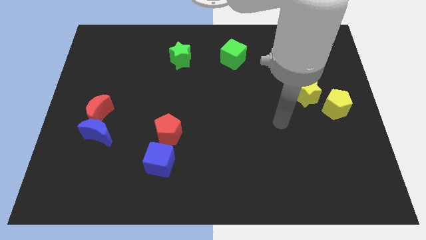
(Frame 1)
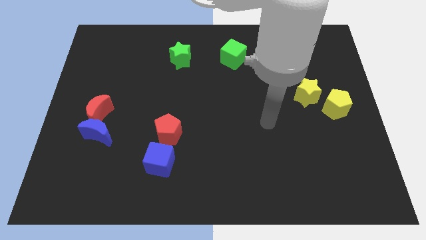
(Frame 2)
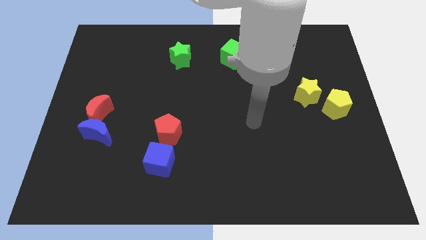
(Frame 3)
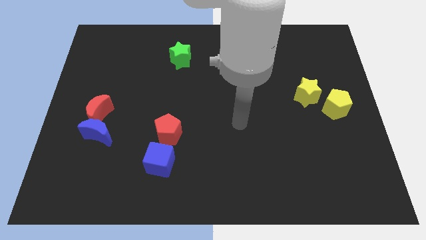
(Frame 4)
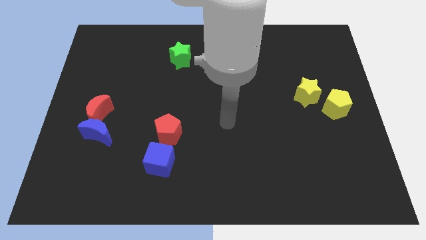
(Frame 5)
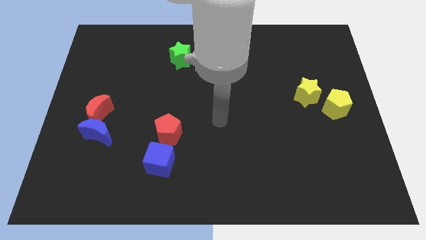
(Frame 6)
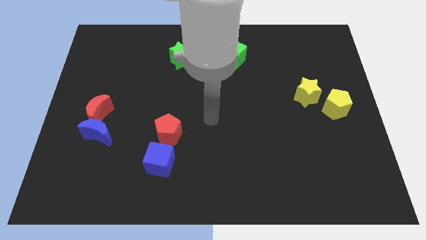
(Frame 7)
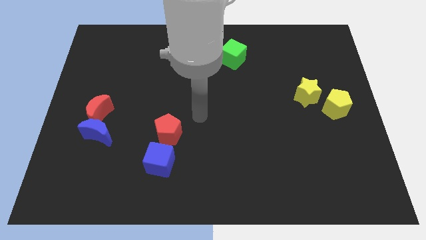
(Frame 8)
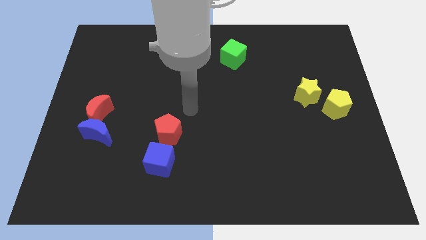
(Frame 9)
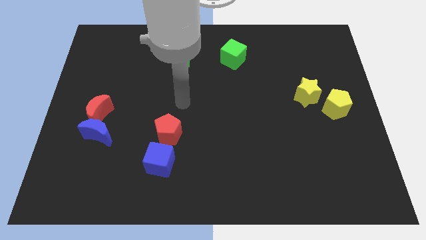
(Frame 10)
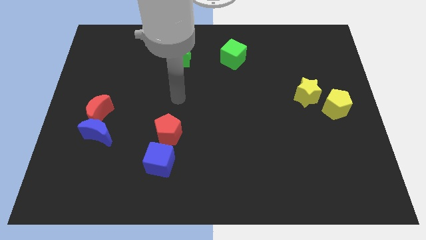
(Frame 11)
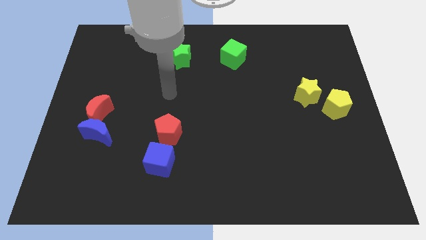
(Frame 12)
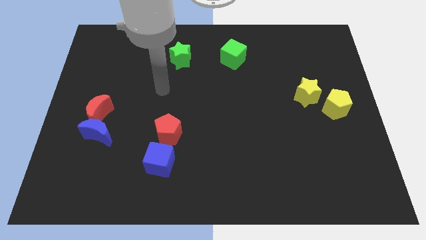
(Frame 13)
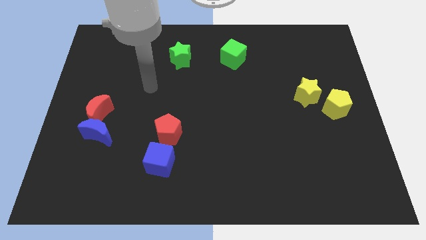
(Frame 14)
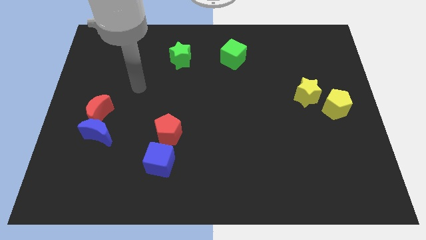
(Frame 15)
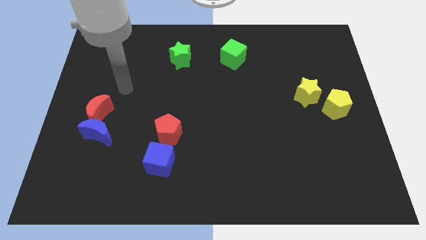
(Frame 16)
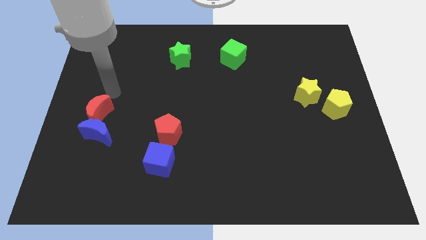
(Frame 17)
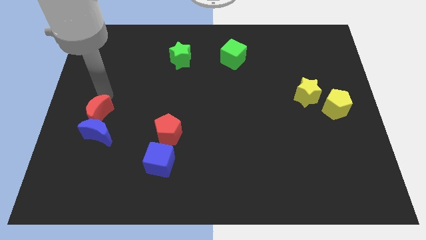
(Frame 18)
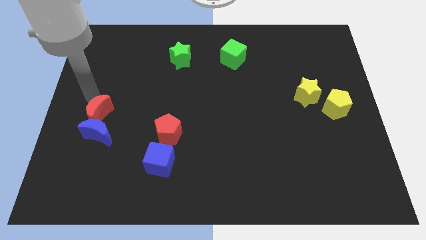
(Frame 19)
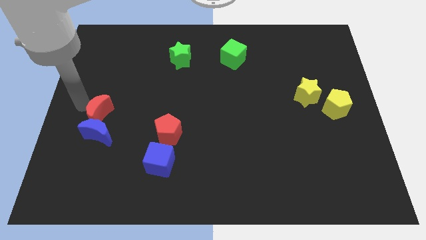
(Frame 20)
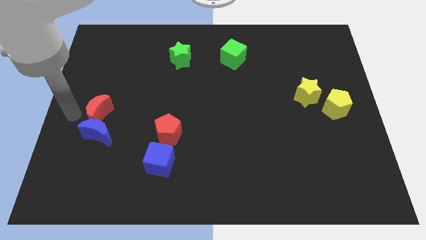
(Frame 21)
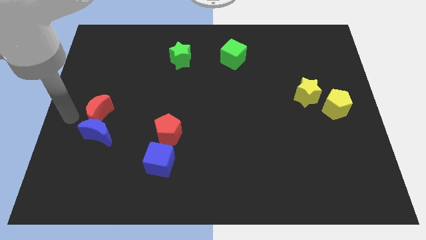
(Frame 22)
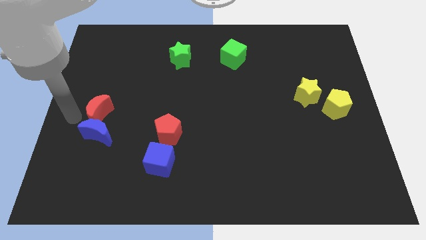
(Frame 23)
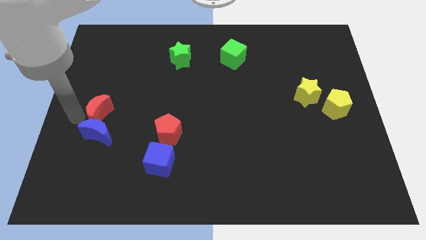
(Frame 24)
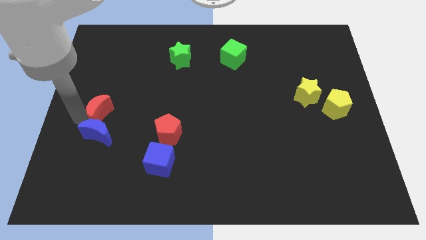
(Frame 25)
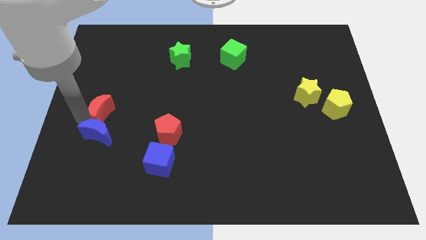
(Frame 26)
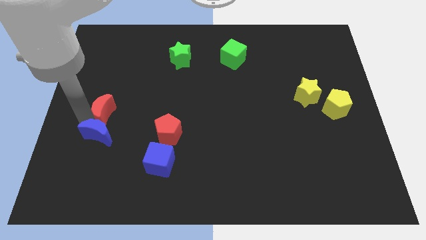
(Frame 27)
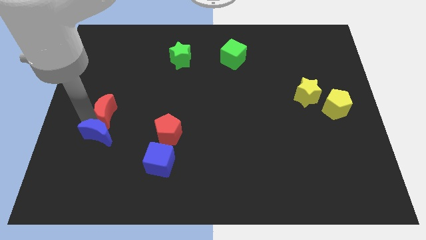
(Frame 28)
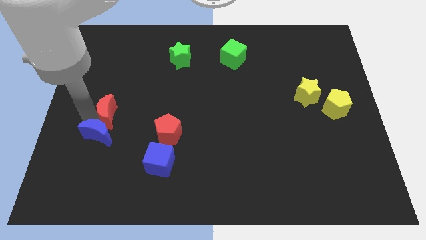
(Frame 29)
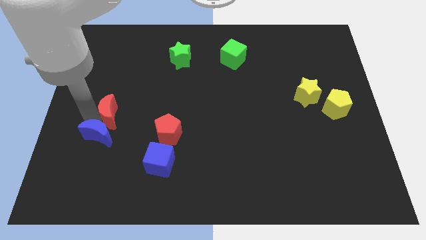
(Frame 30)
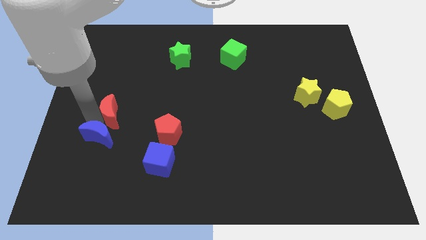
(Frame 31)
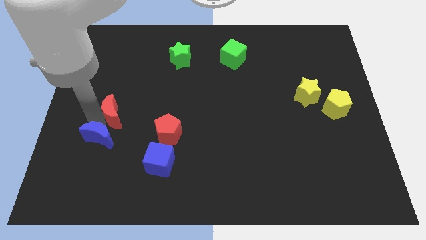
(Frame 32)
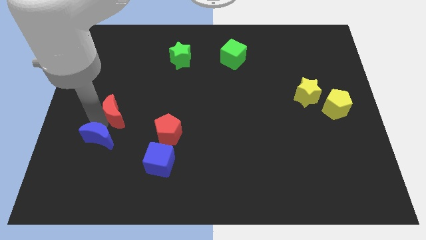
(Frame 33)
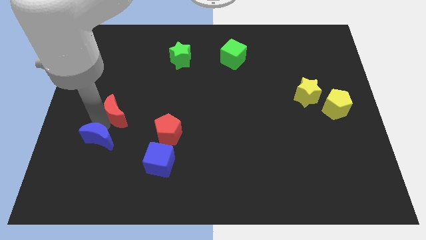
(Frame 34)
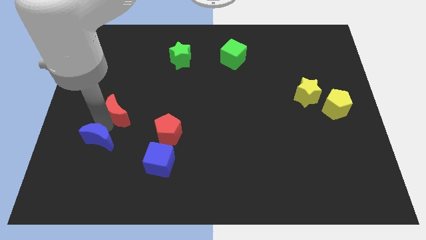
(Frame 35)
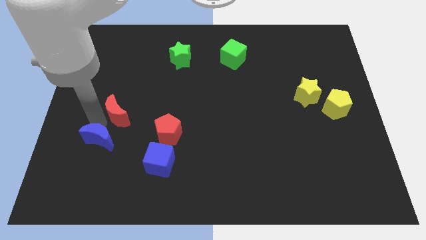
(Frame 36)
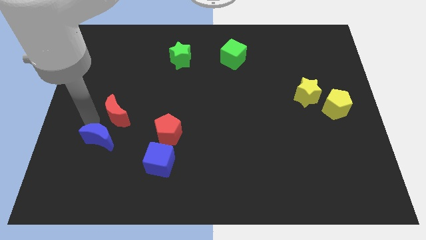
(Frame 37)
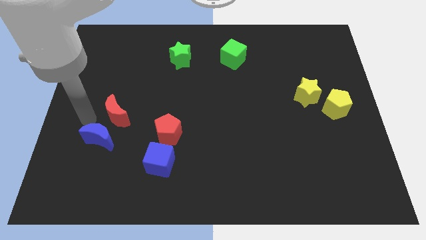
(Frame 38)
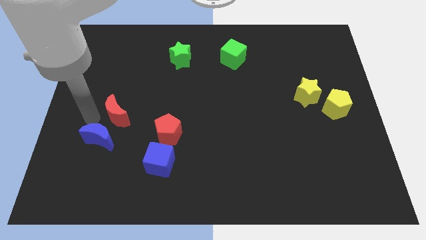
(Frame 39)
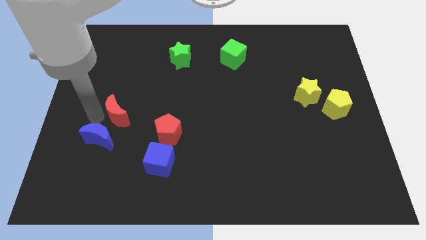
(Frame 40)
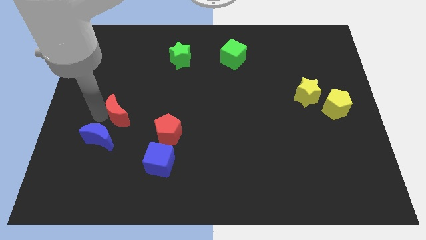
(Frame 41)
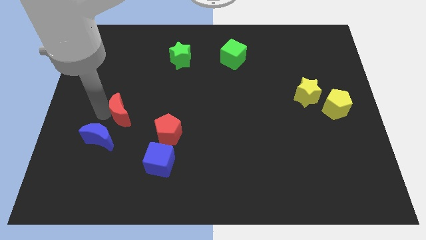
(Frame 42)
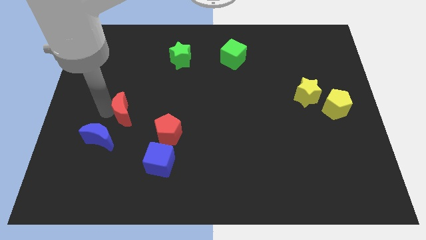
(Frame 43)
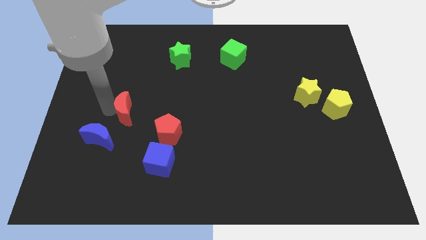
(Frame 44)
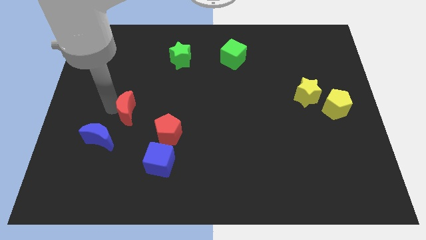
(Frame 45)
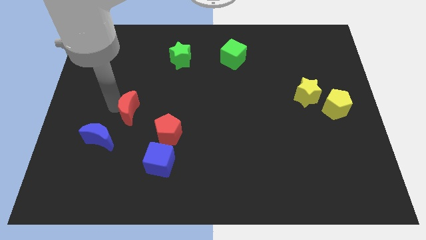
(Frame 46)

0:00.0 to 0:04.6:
slightly push the red moon to the right

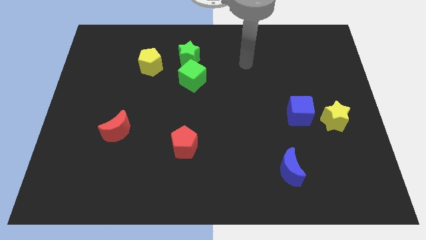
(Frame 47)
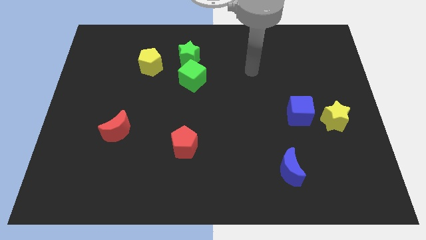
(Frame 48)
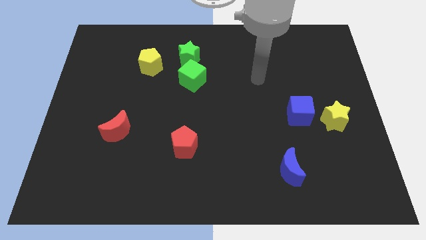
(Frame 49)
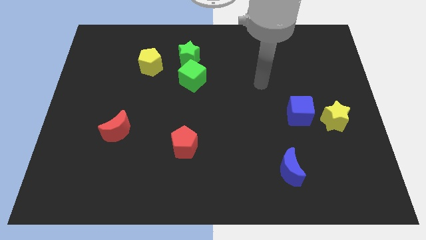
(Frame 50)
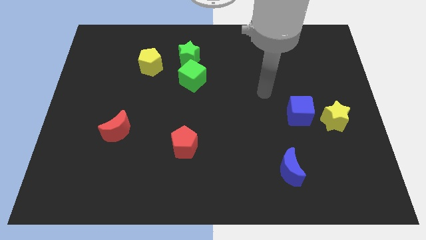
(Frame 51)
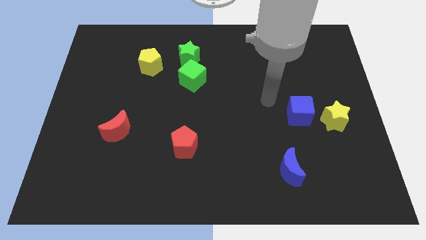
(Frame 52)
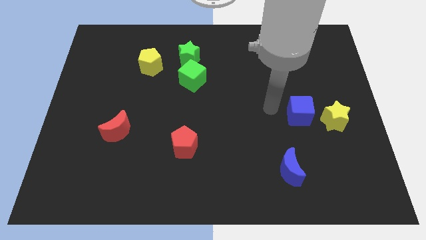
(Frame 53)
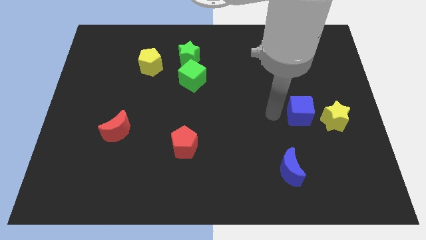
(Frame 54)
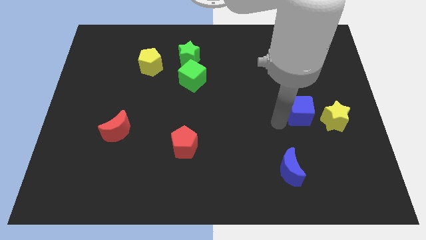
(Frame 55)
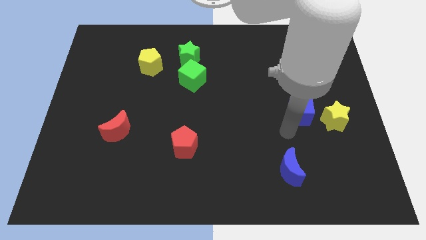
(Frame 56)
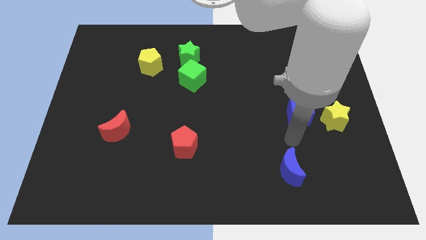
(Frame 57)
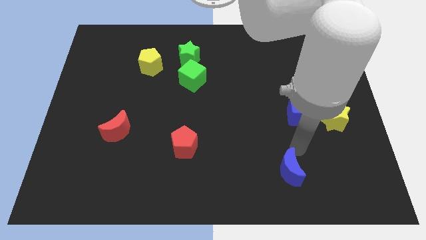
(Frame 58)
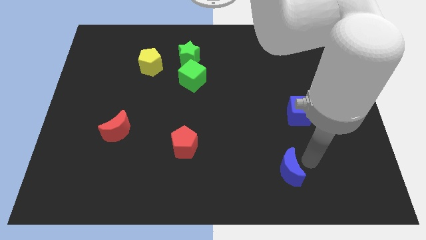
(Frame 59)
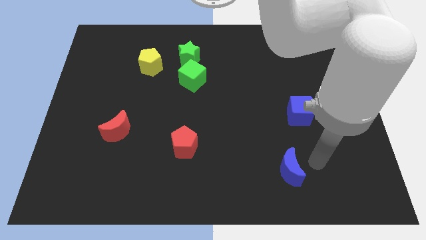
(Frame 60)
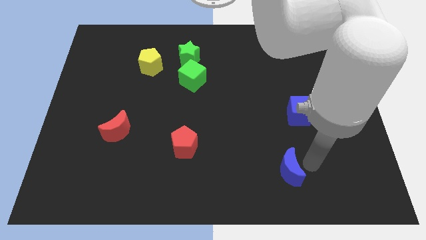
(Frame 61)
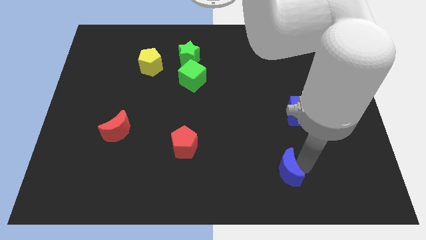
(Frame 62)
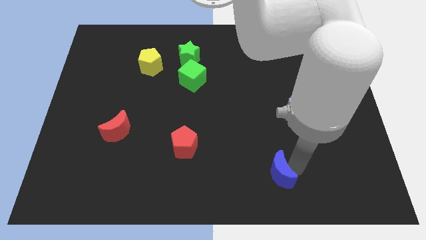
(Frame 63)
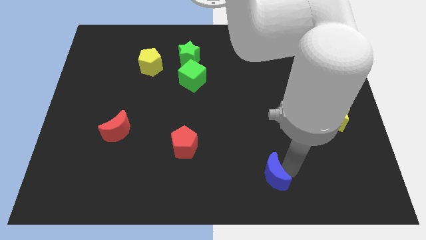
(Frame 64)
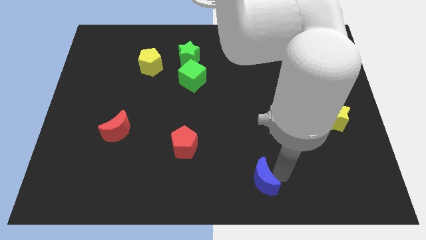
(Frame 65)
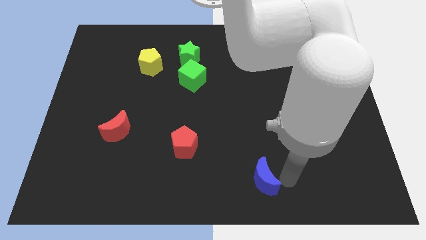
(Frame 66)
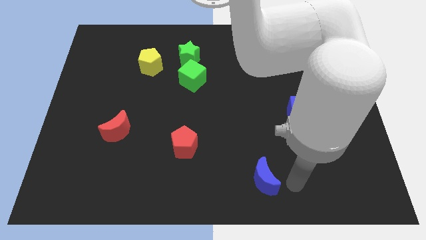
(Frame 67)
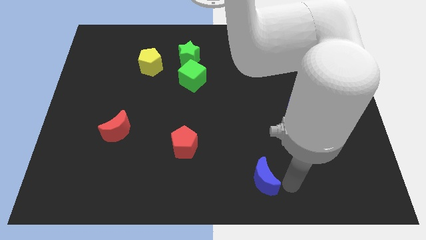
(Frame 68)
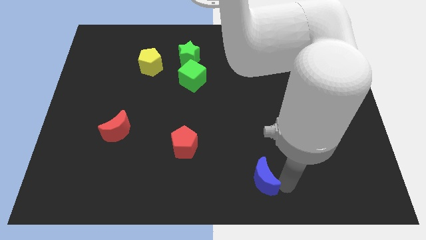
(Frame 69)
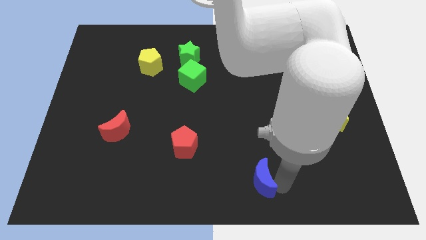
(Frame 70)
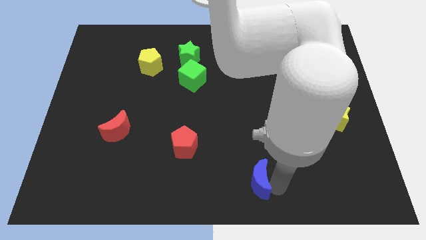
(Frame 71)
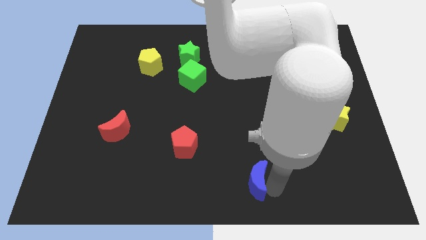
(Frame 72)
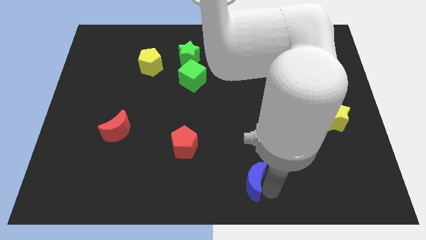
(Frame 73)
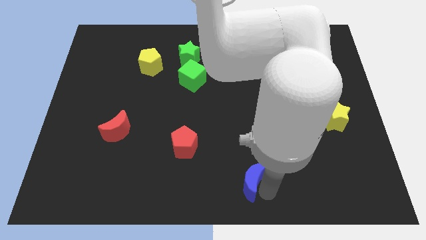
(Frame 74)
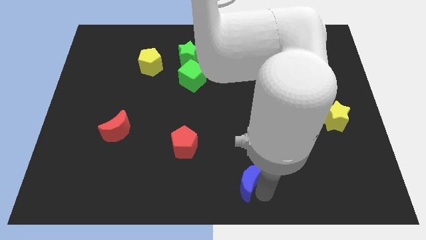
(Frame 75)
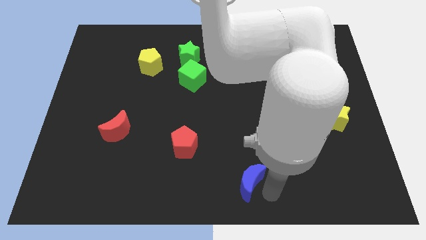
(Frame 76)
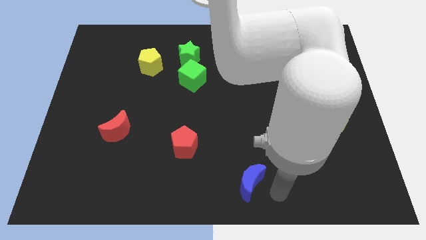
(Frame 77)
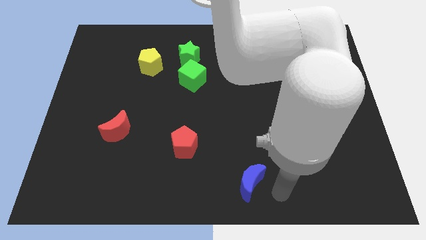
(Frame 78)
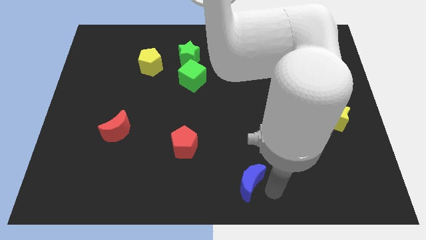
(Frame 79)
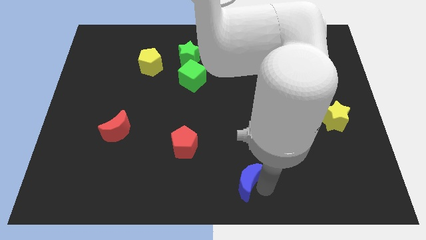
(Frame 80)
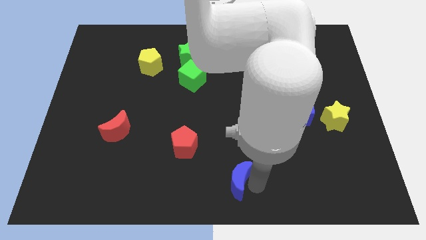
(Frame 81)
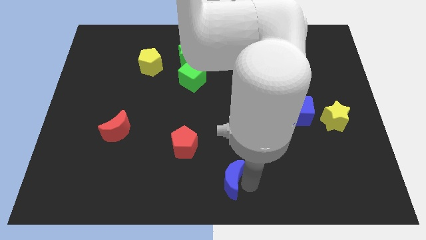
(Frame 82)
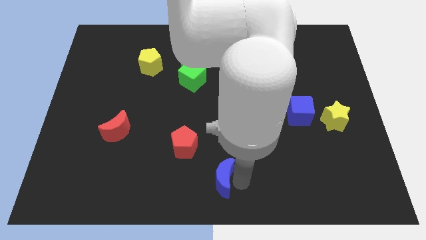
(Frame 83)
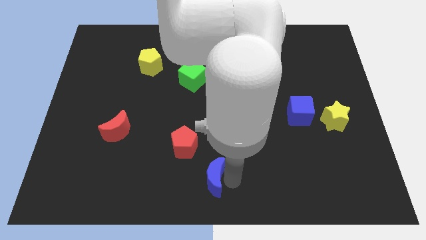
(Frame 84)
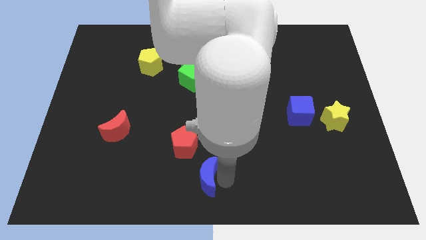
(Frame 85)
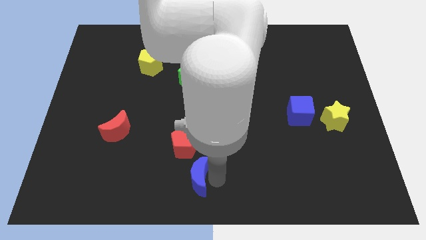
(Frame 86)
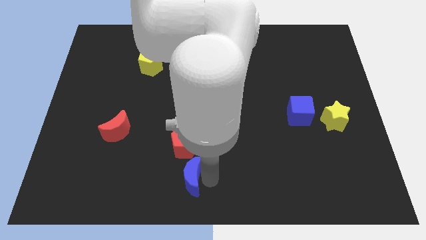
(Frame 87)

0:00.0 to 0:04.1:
push the blue moon left
